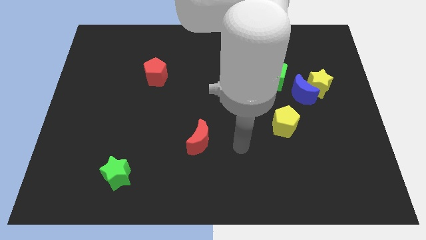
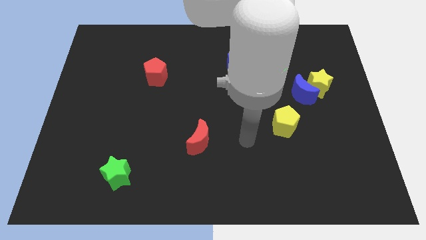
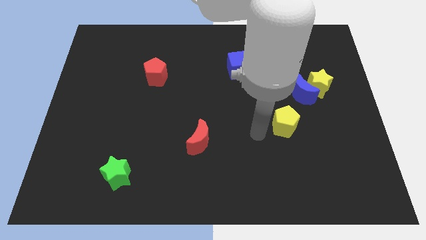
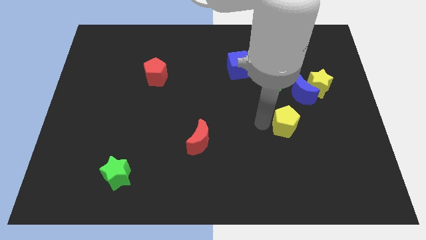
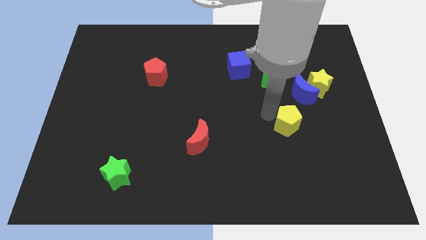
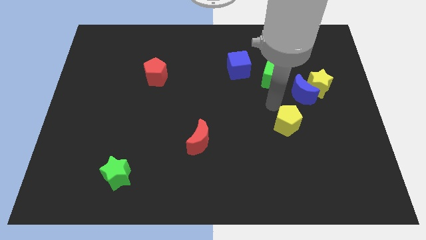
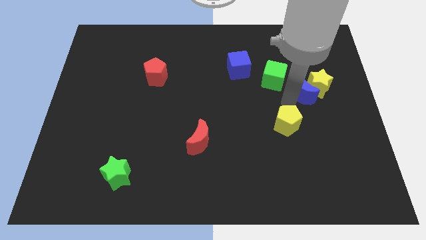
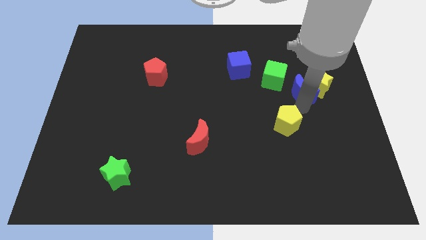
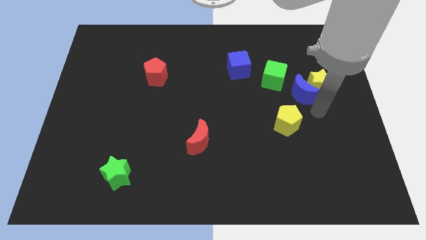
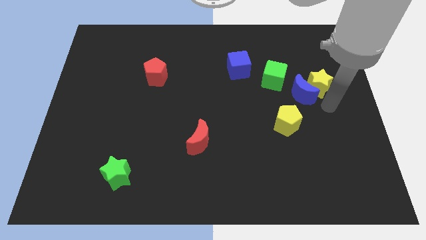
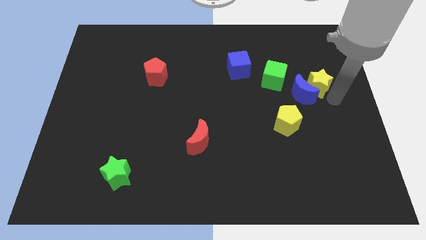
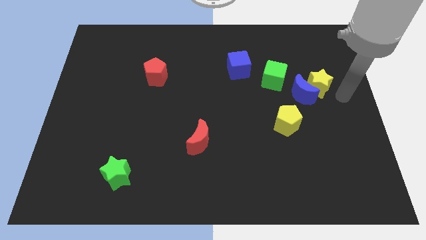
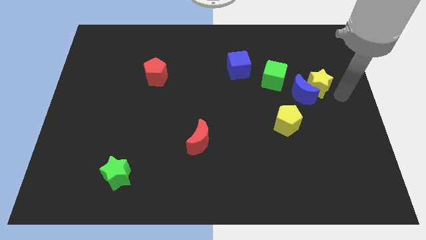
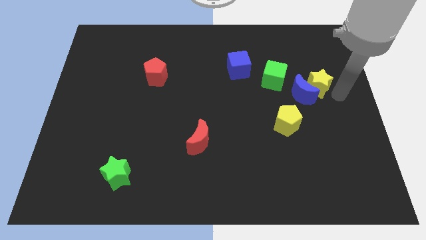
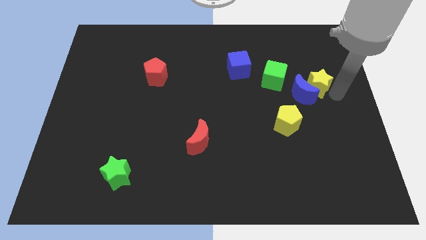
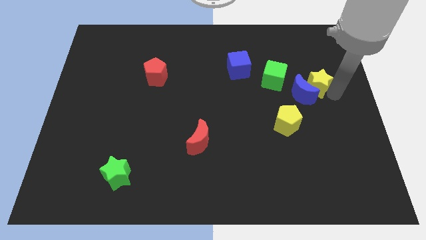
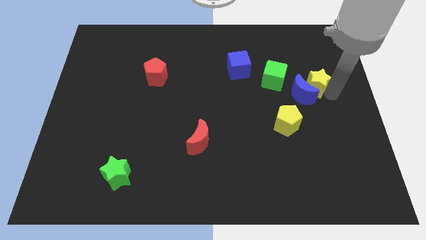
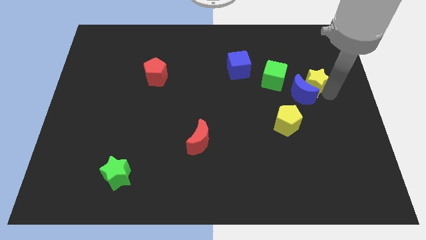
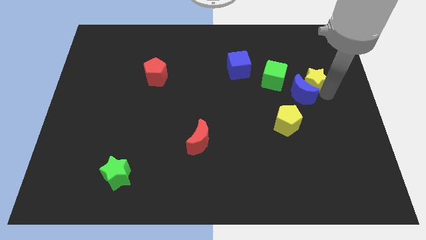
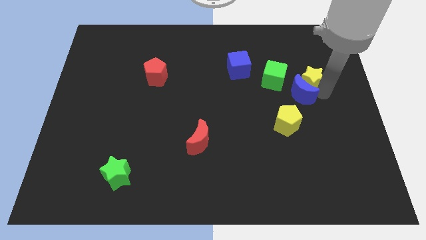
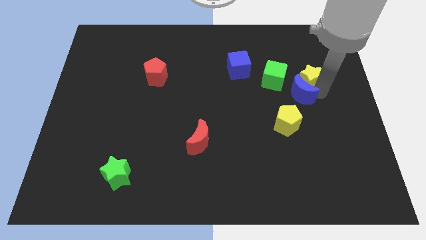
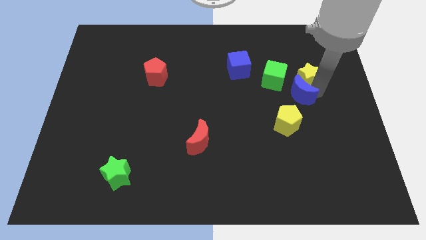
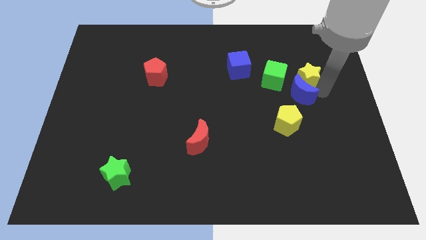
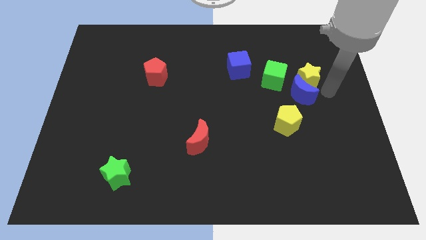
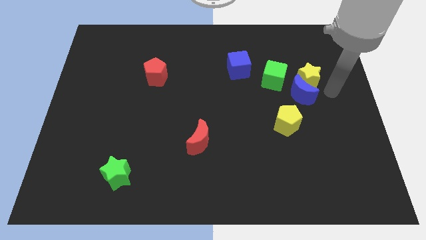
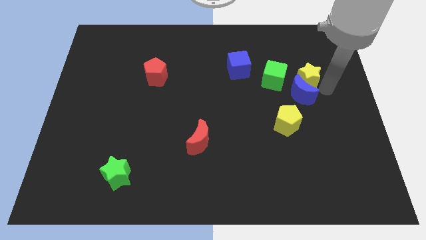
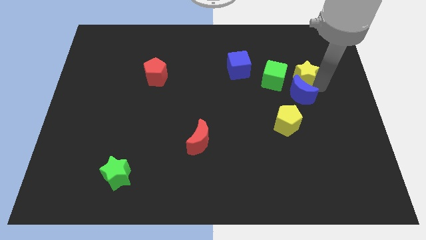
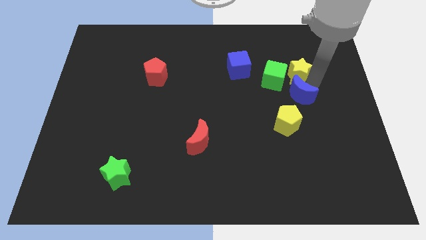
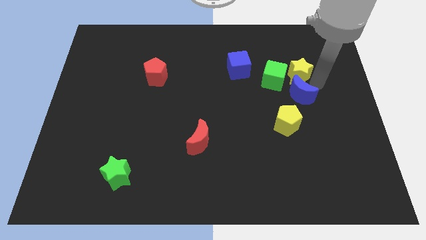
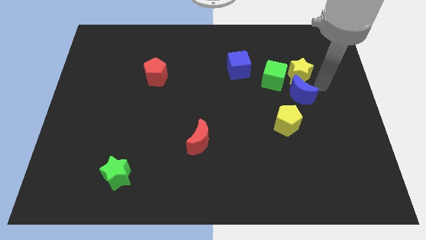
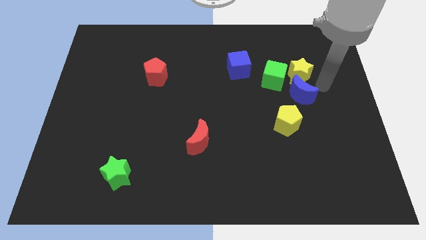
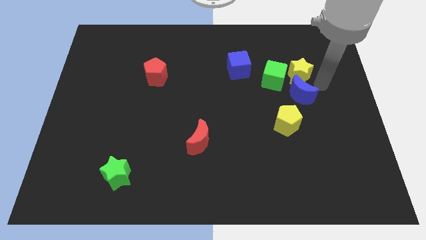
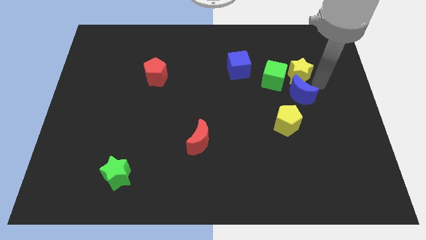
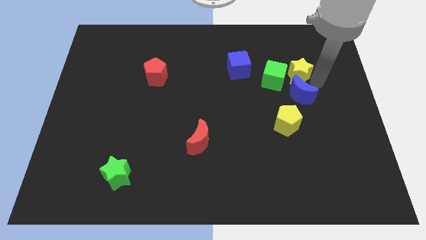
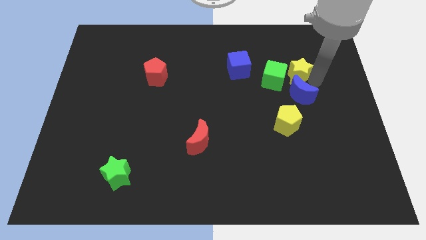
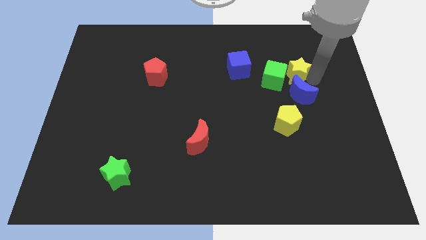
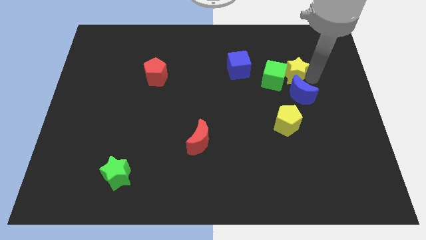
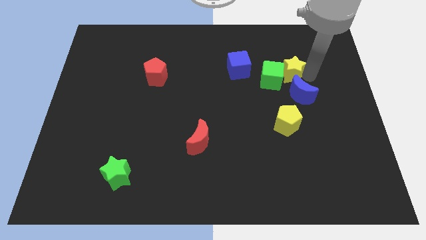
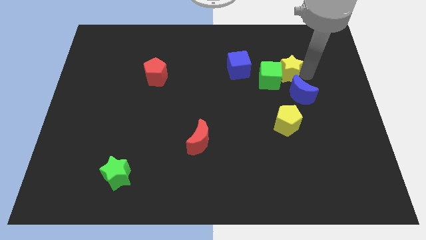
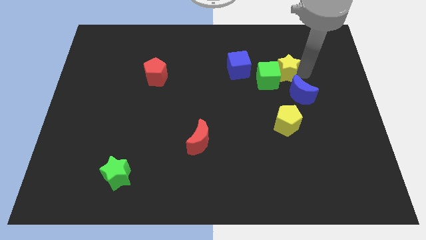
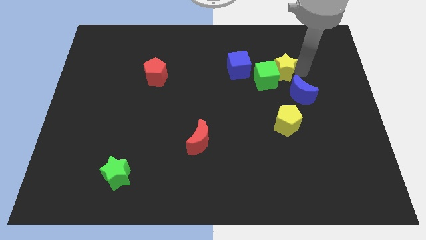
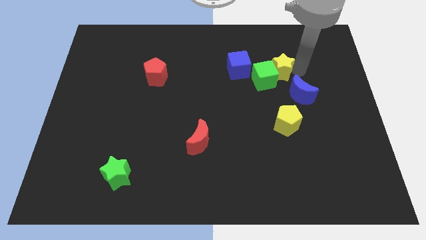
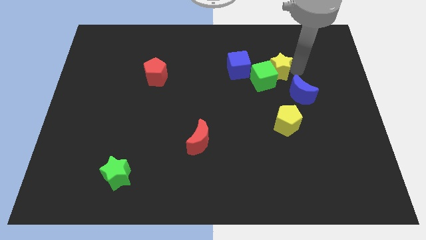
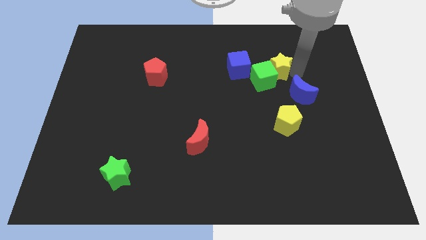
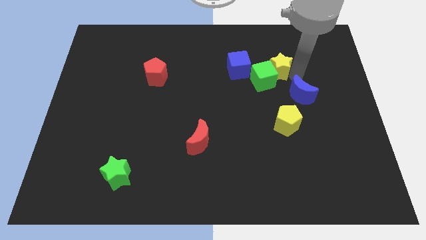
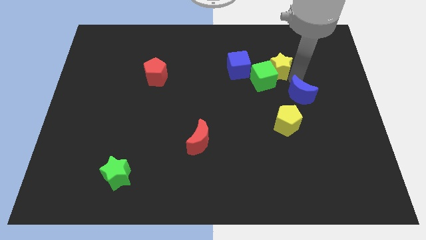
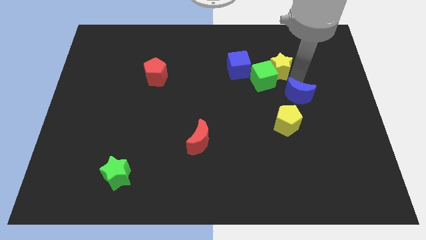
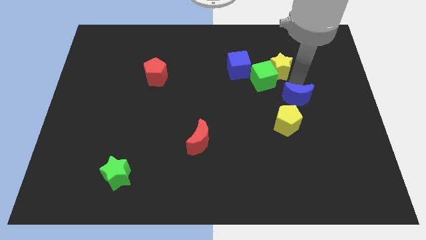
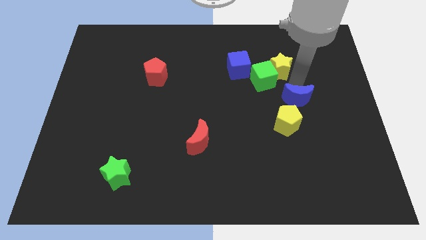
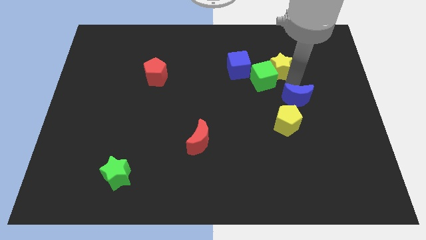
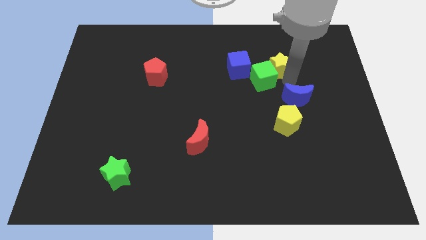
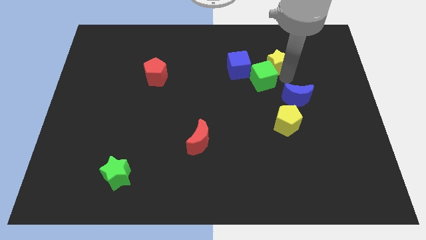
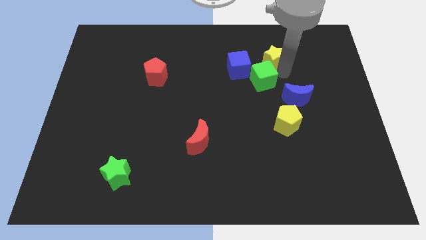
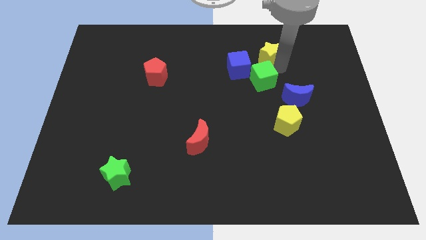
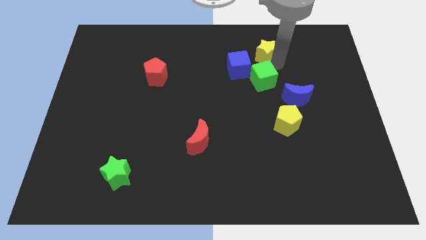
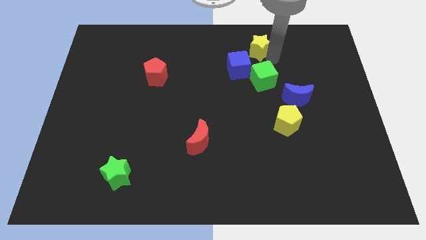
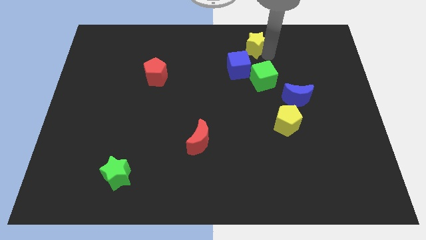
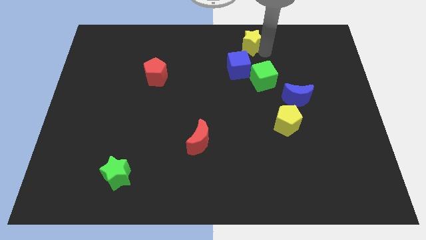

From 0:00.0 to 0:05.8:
put the yellow star to the top side

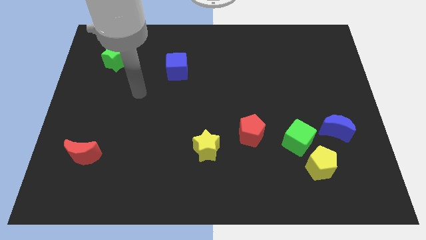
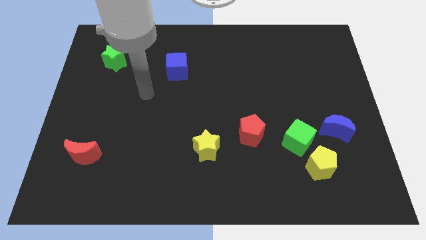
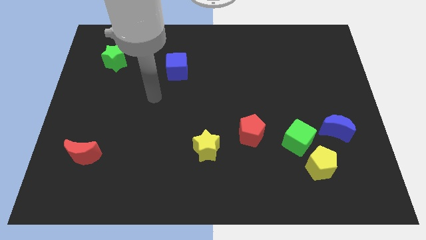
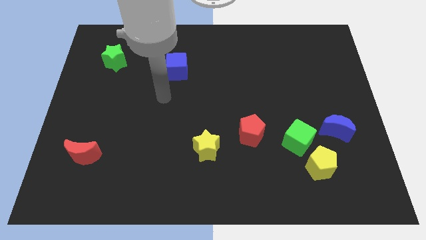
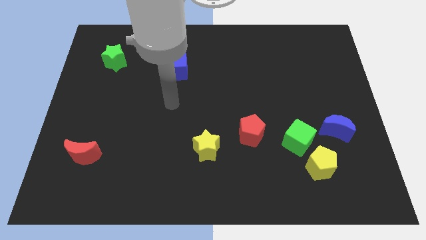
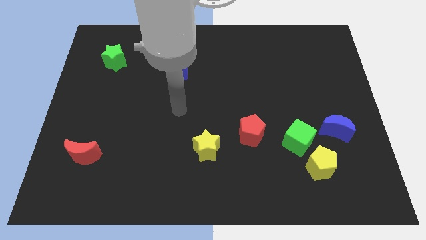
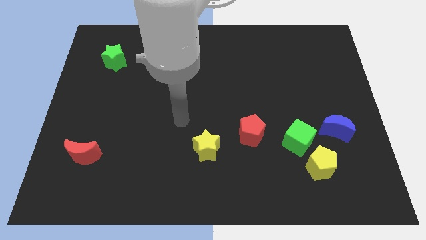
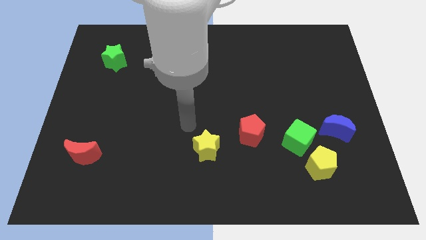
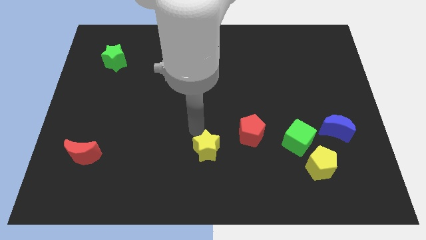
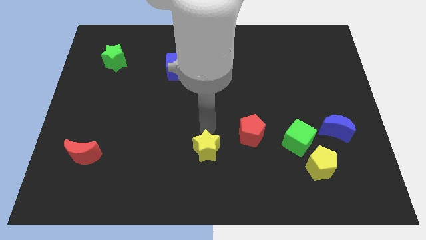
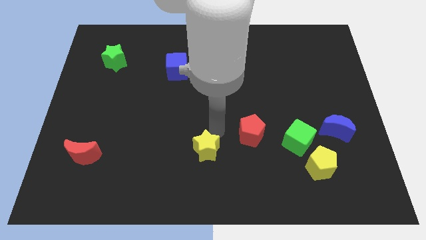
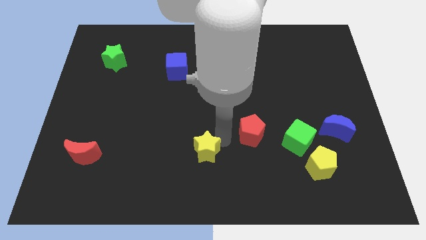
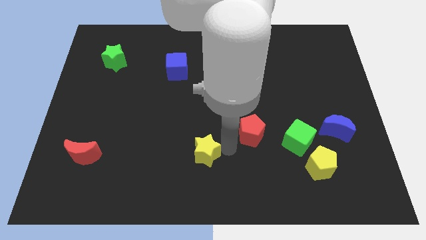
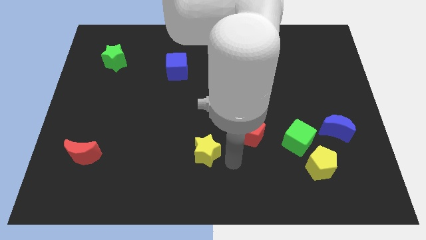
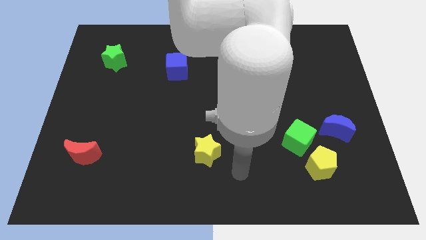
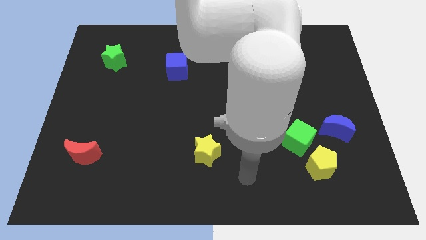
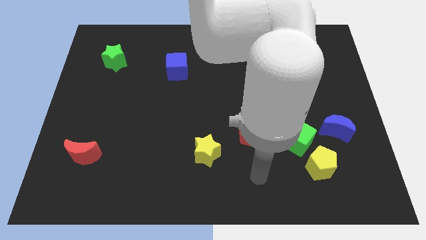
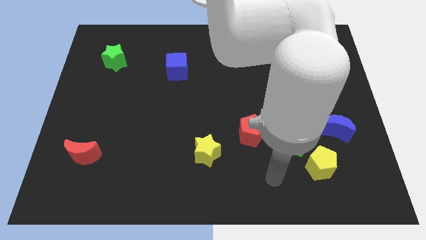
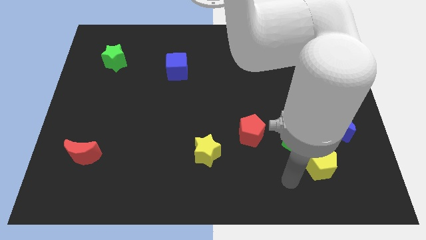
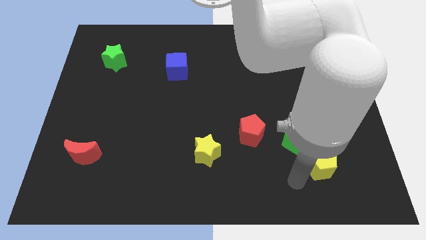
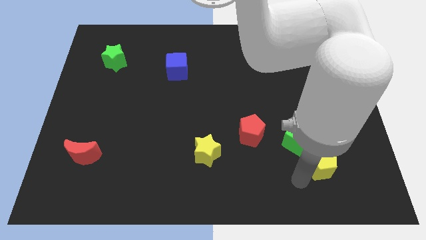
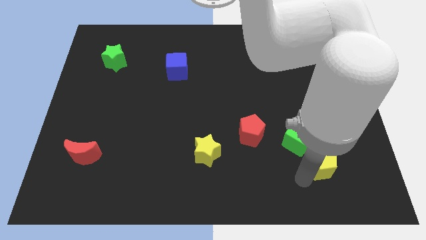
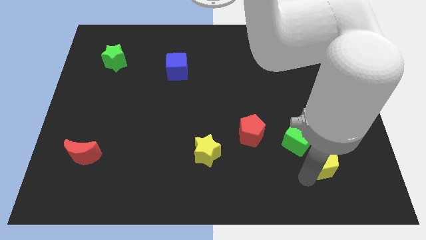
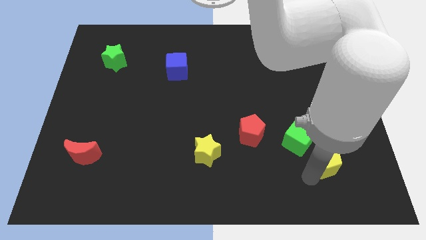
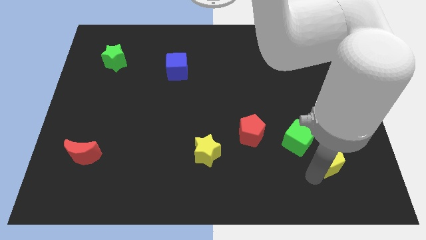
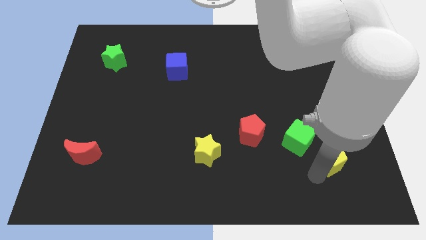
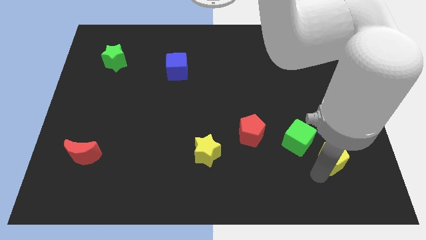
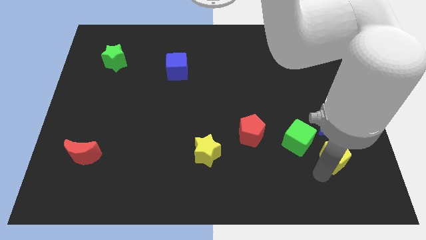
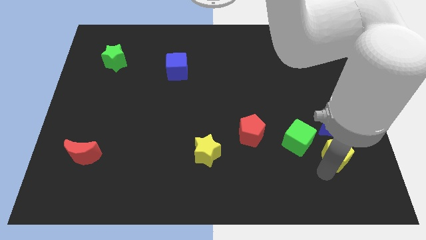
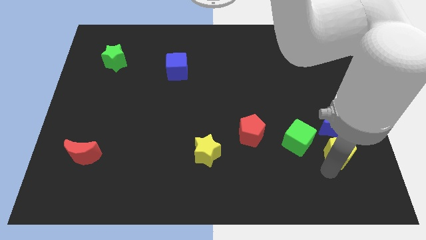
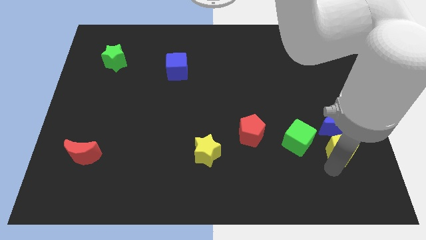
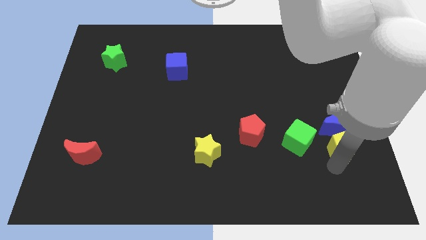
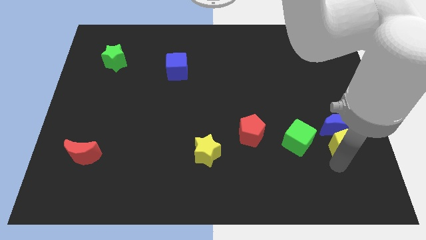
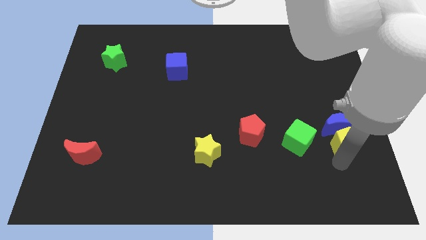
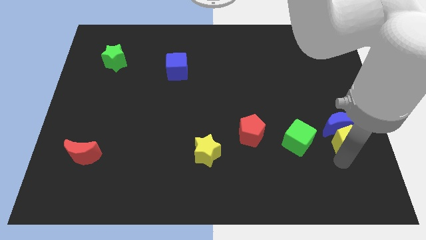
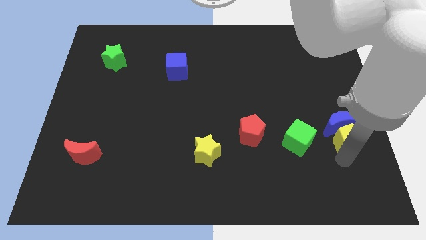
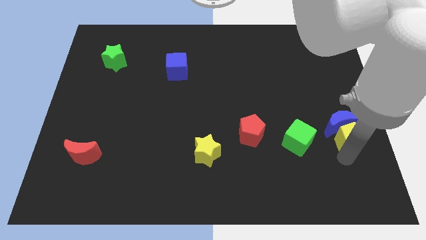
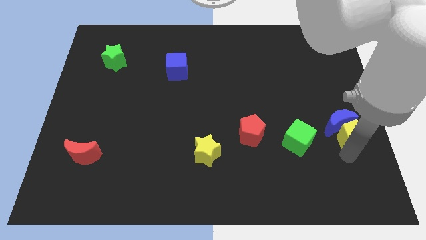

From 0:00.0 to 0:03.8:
slide the yellow pentagon to the right side of the board
